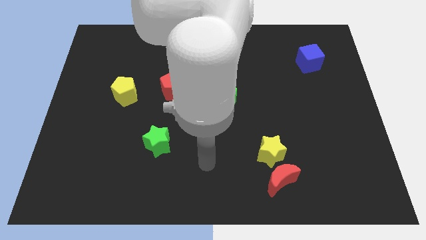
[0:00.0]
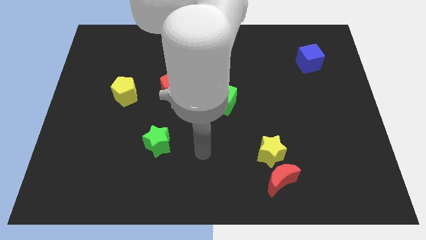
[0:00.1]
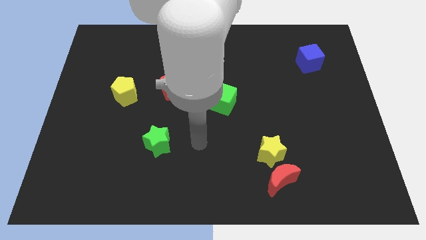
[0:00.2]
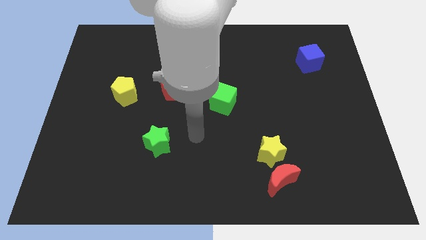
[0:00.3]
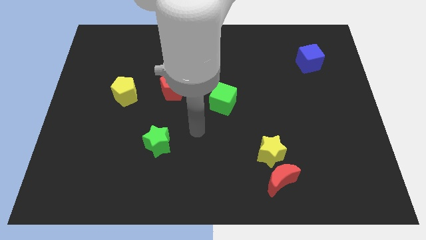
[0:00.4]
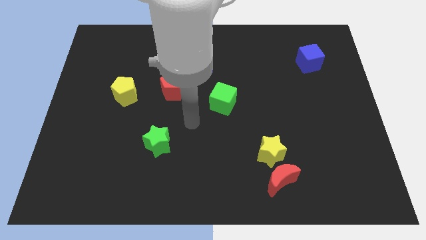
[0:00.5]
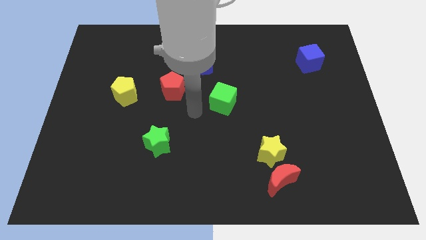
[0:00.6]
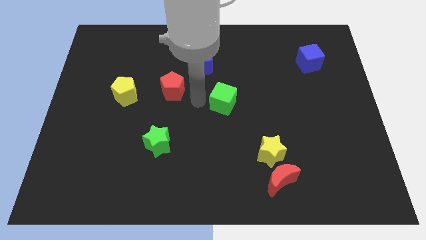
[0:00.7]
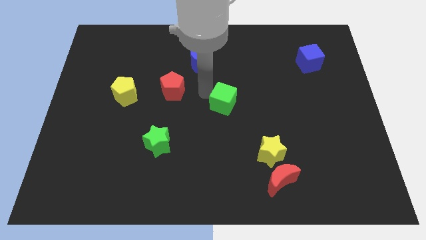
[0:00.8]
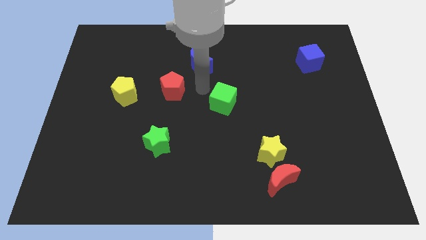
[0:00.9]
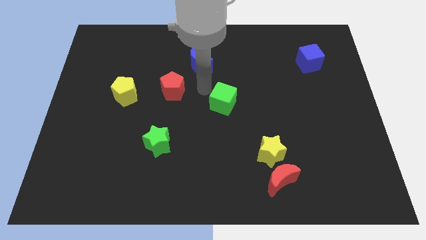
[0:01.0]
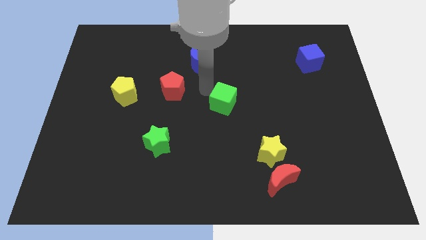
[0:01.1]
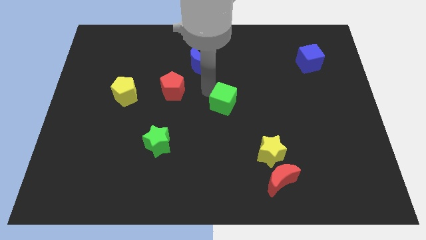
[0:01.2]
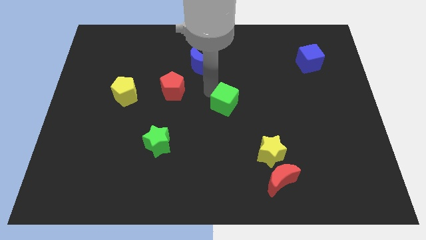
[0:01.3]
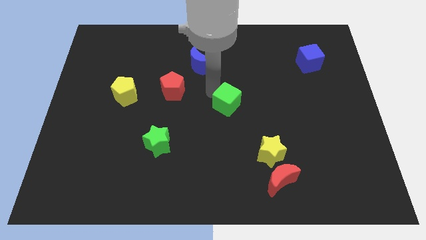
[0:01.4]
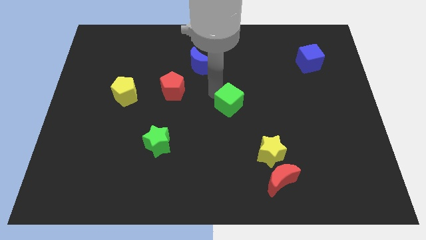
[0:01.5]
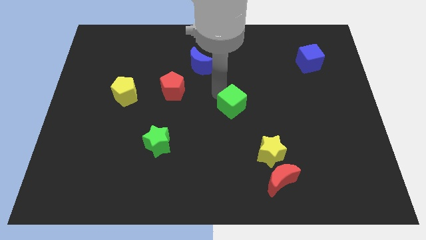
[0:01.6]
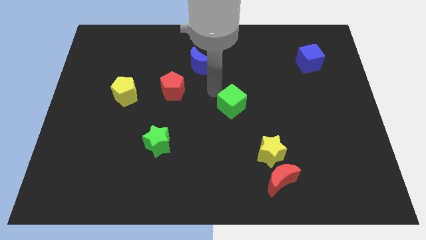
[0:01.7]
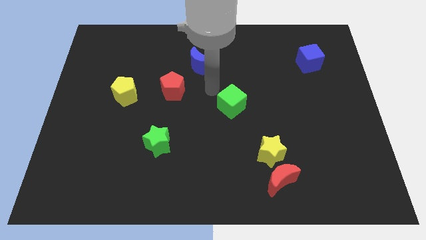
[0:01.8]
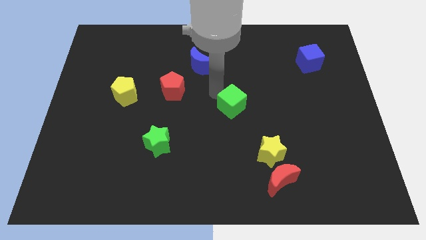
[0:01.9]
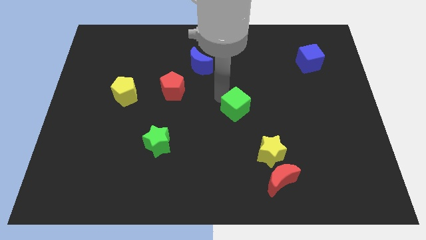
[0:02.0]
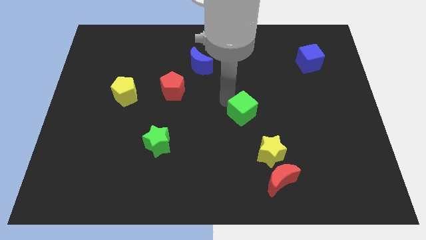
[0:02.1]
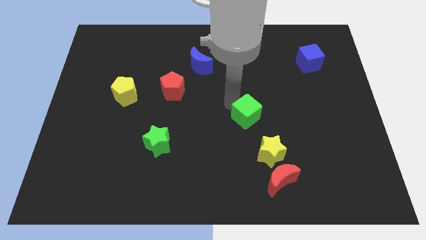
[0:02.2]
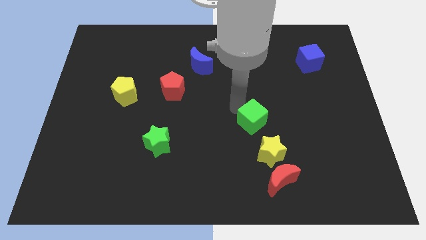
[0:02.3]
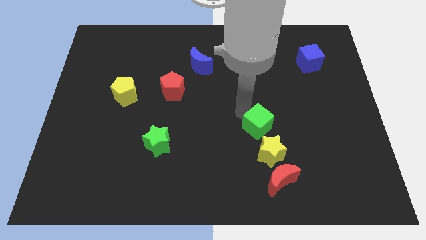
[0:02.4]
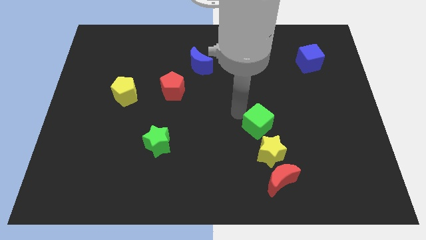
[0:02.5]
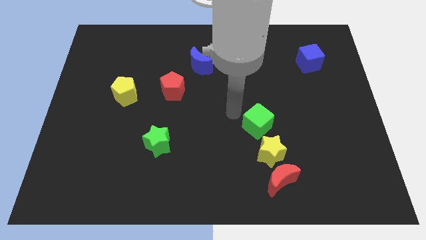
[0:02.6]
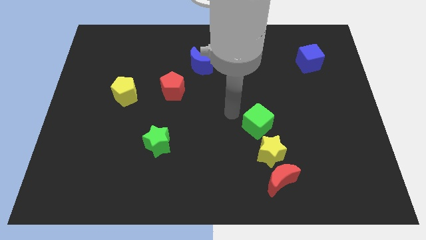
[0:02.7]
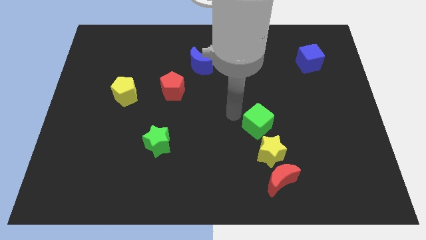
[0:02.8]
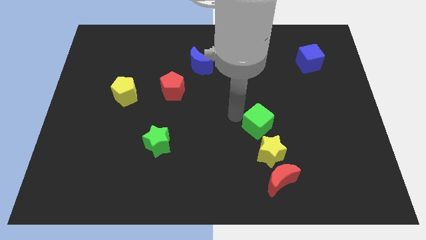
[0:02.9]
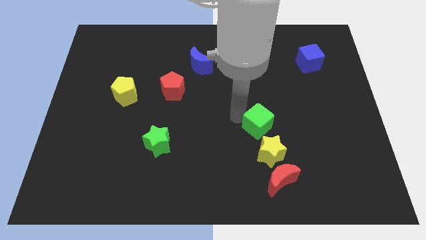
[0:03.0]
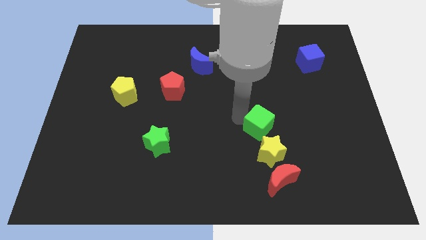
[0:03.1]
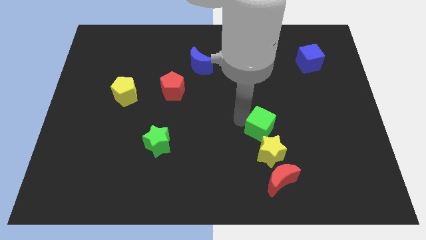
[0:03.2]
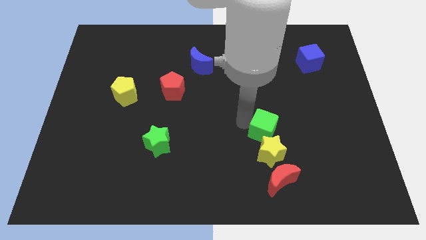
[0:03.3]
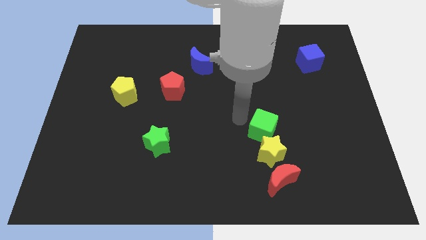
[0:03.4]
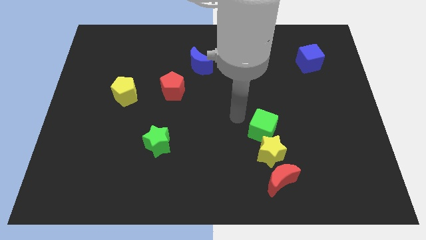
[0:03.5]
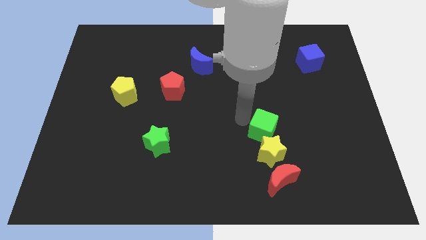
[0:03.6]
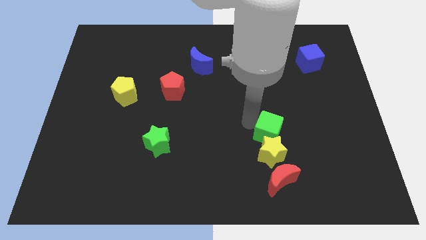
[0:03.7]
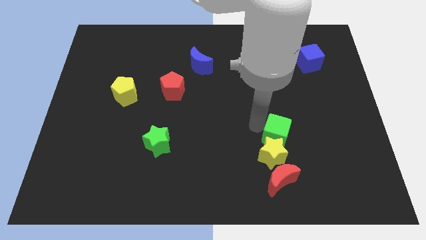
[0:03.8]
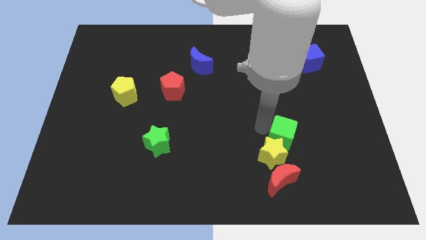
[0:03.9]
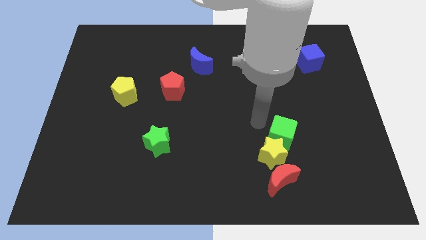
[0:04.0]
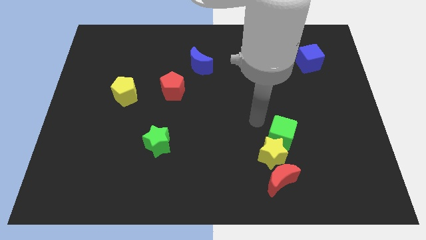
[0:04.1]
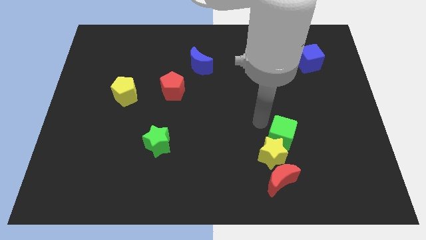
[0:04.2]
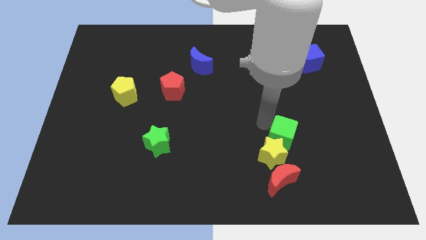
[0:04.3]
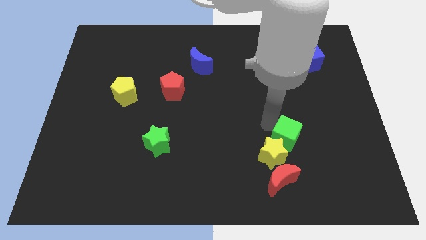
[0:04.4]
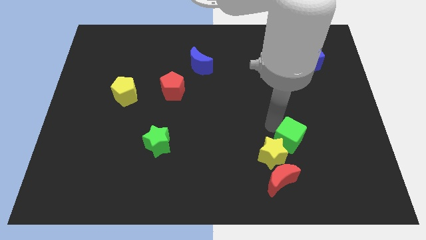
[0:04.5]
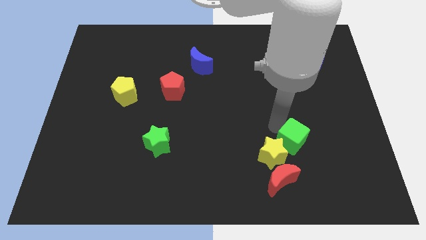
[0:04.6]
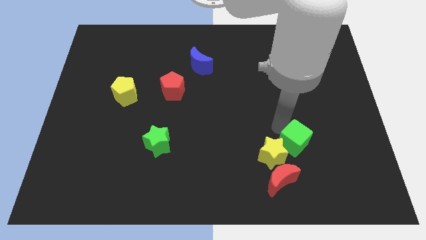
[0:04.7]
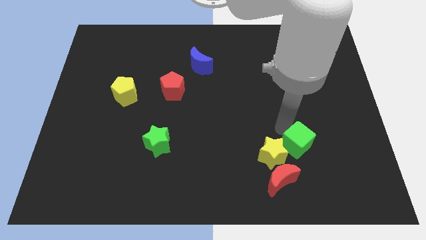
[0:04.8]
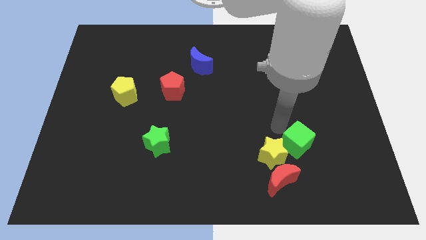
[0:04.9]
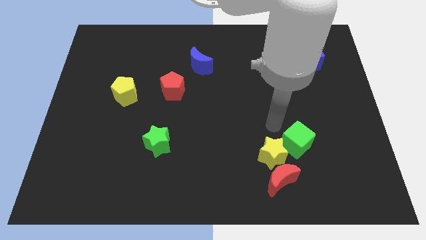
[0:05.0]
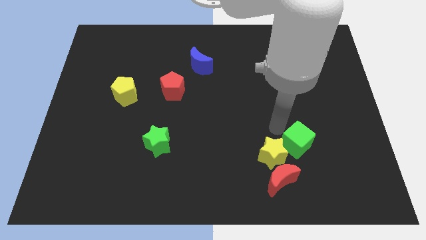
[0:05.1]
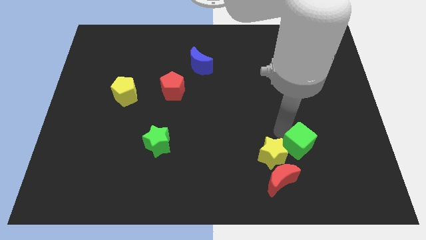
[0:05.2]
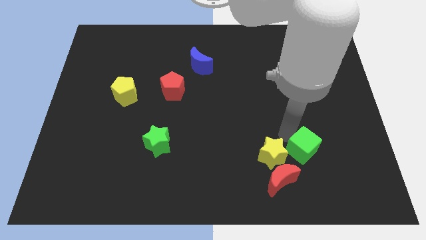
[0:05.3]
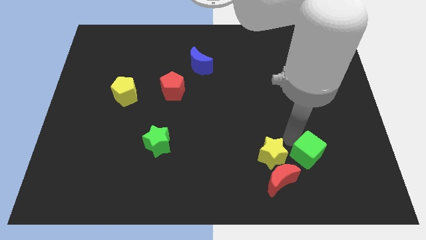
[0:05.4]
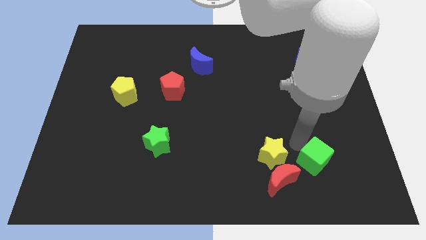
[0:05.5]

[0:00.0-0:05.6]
slide the green cube right of the red moon

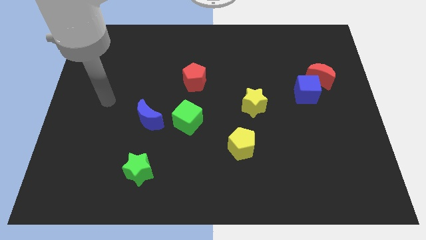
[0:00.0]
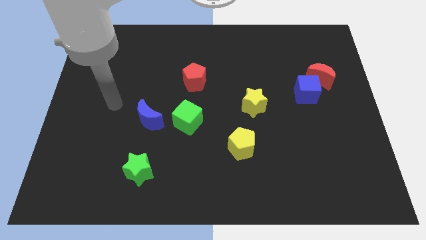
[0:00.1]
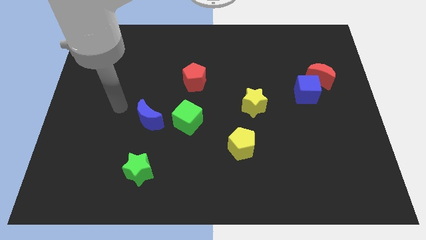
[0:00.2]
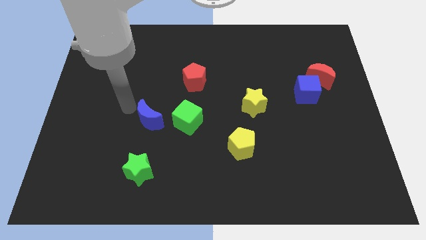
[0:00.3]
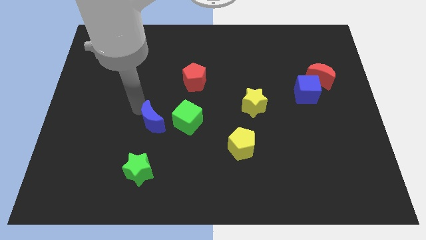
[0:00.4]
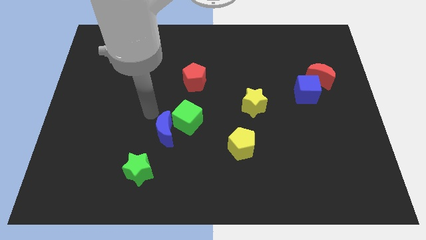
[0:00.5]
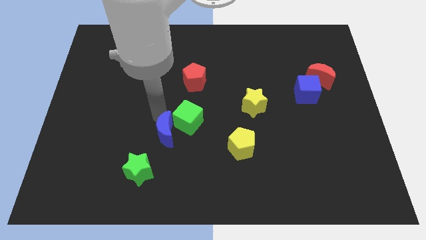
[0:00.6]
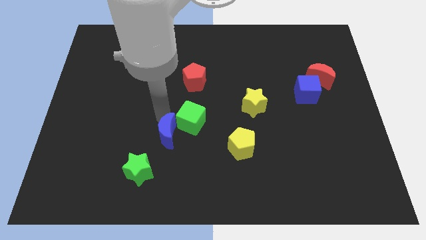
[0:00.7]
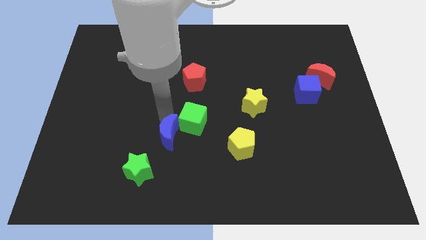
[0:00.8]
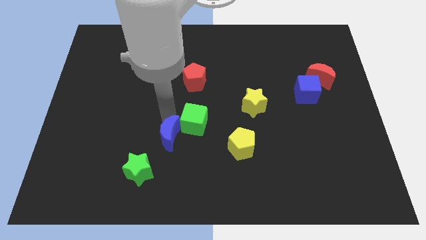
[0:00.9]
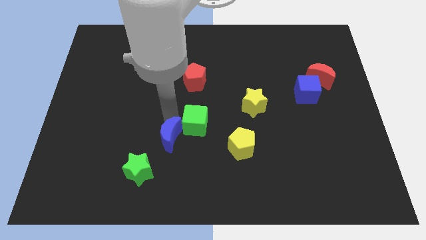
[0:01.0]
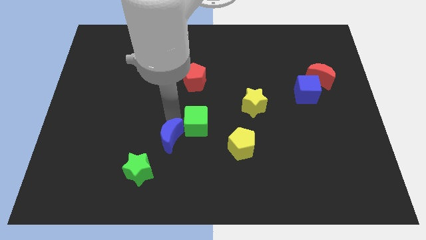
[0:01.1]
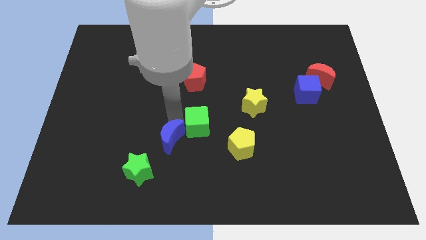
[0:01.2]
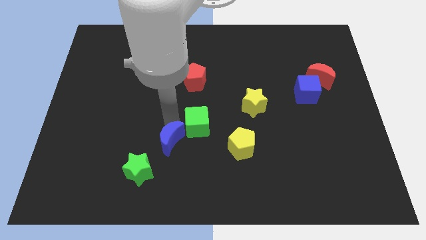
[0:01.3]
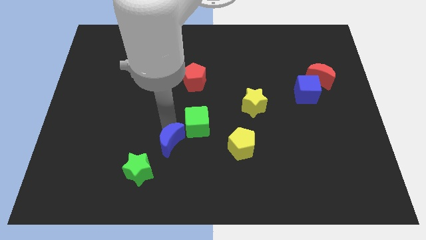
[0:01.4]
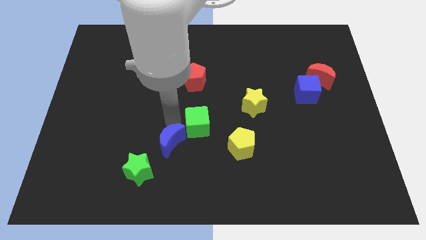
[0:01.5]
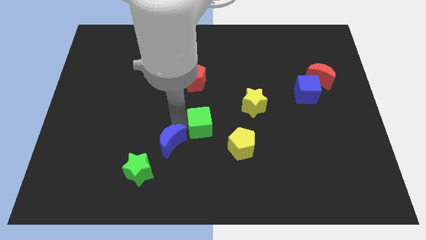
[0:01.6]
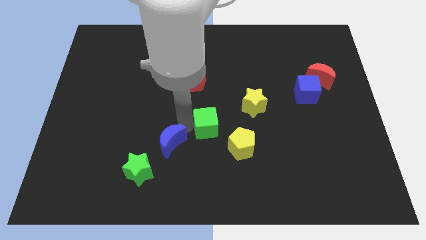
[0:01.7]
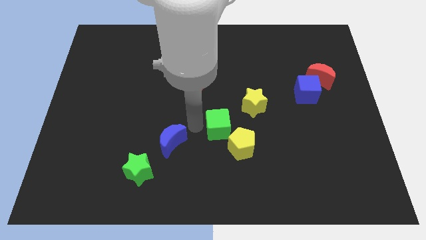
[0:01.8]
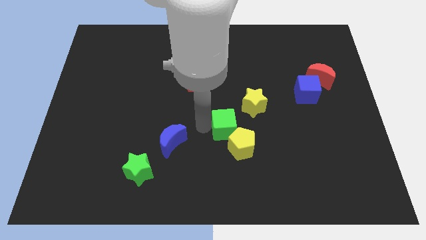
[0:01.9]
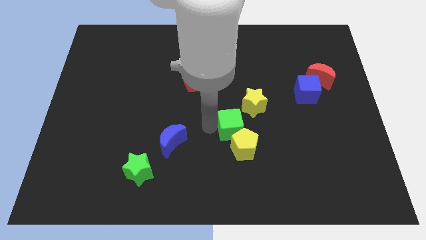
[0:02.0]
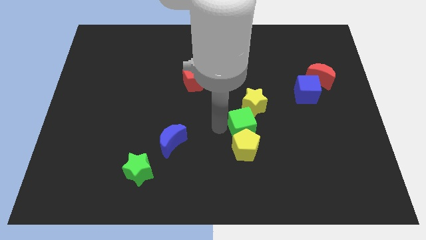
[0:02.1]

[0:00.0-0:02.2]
move the green cube to the top right side of the yellow pentagon

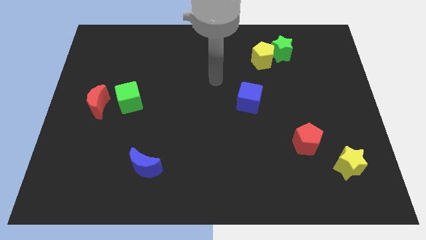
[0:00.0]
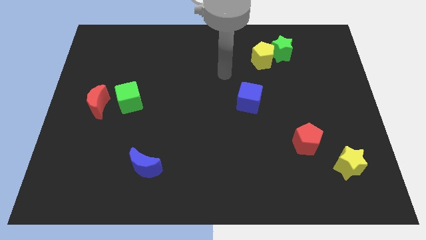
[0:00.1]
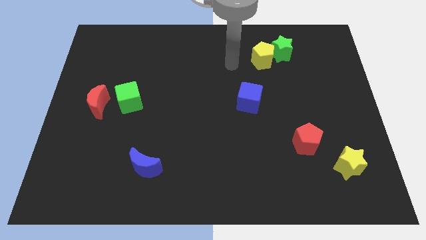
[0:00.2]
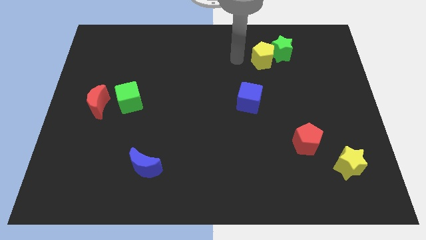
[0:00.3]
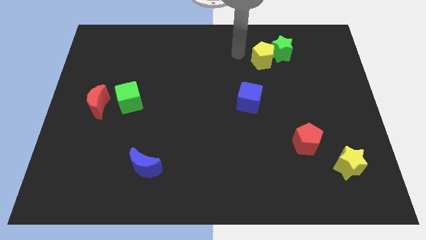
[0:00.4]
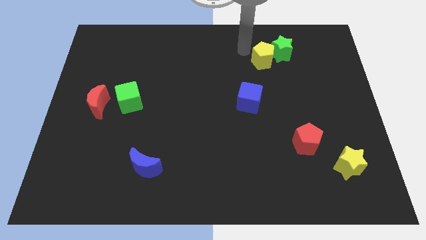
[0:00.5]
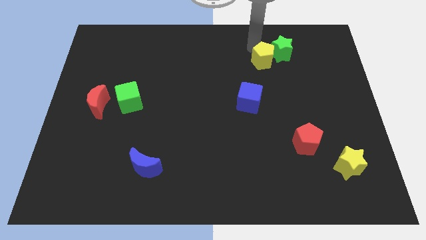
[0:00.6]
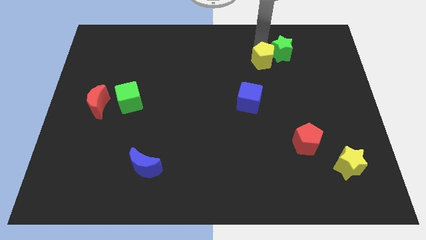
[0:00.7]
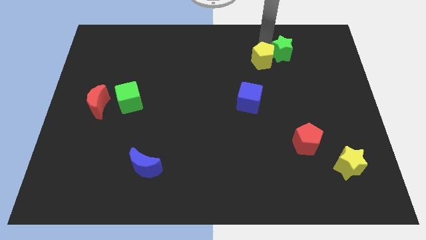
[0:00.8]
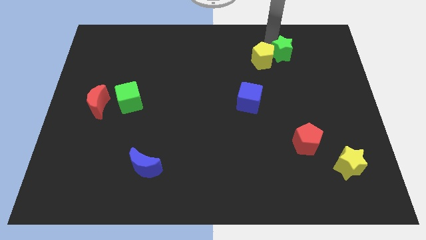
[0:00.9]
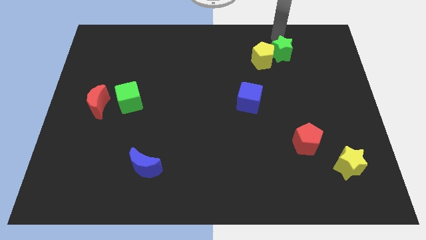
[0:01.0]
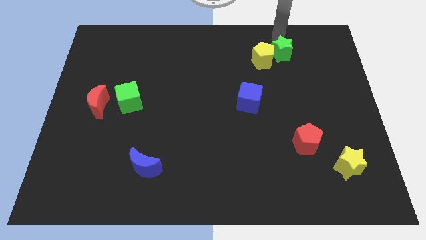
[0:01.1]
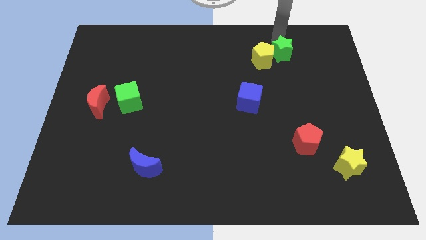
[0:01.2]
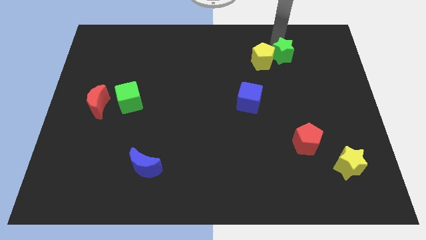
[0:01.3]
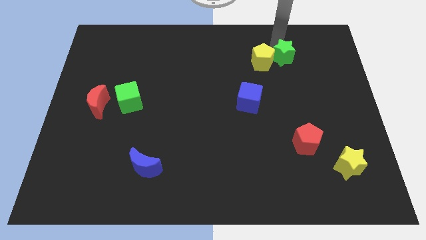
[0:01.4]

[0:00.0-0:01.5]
move the green star to the bottom right of the yellow pentagon
